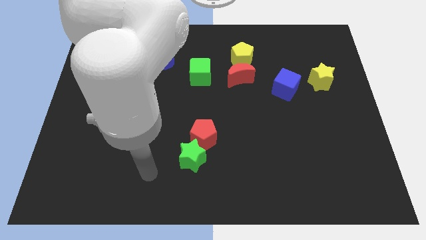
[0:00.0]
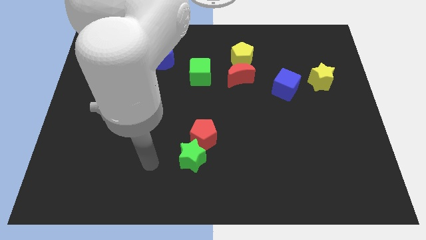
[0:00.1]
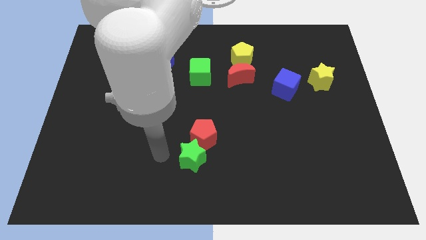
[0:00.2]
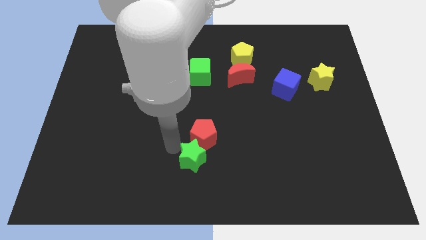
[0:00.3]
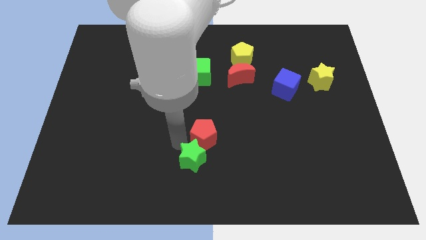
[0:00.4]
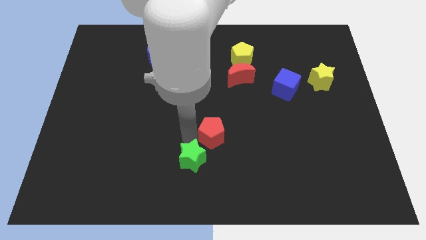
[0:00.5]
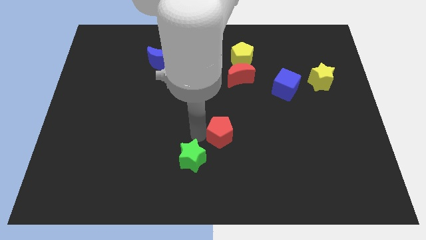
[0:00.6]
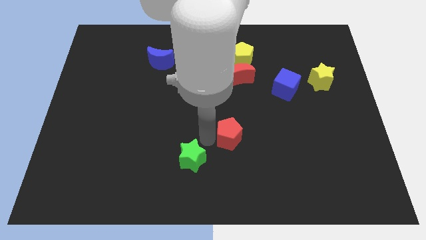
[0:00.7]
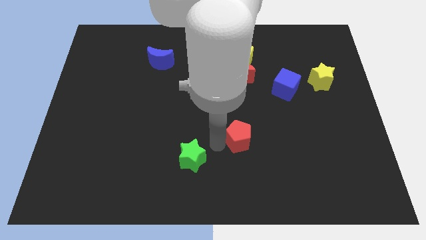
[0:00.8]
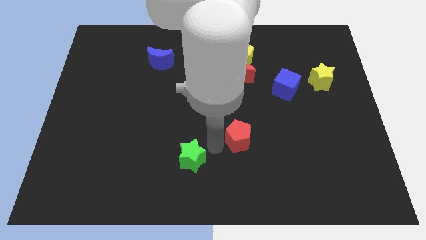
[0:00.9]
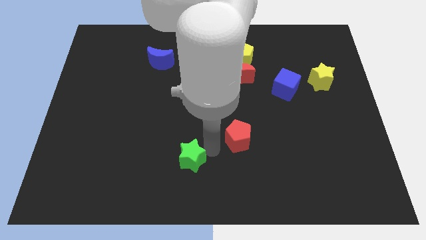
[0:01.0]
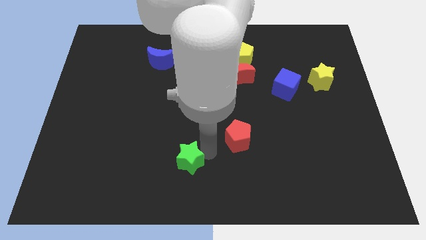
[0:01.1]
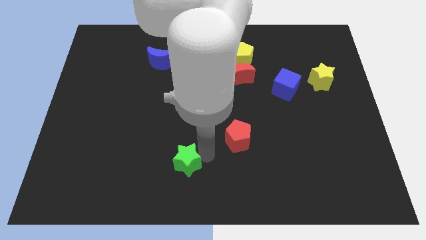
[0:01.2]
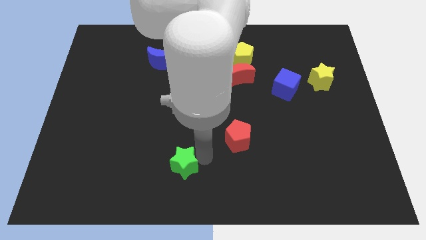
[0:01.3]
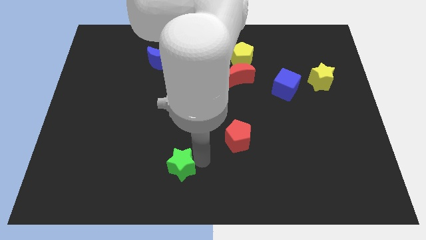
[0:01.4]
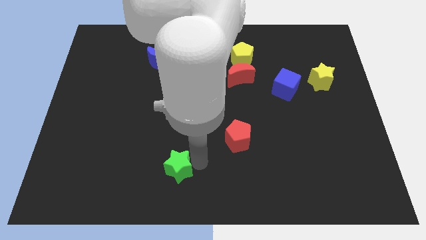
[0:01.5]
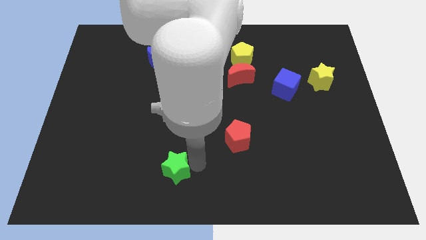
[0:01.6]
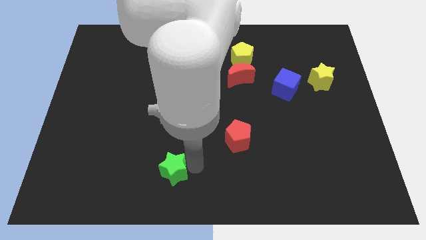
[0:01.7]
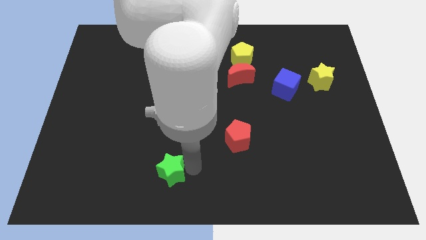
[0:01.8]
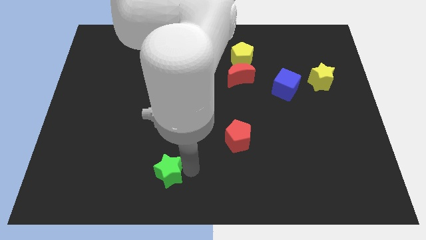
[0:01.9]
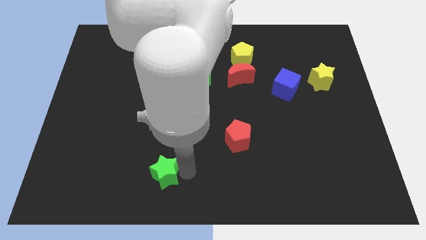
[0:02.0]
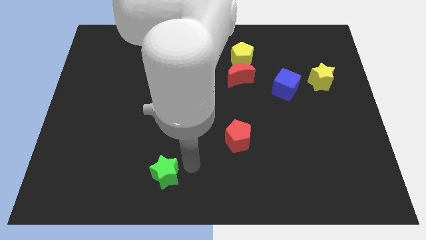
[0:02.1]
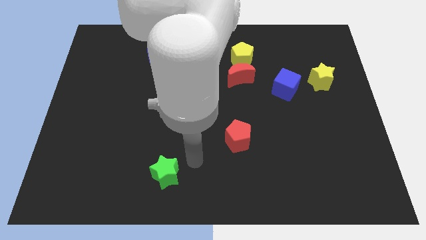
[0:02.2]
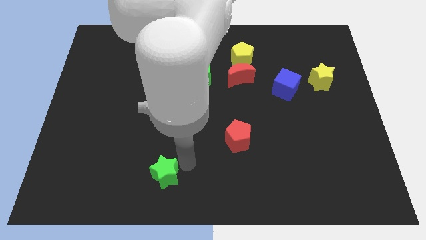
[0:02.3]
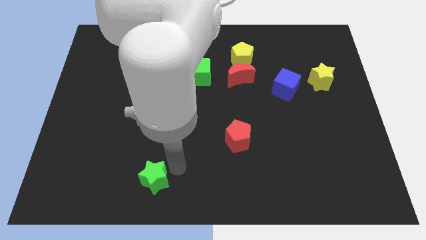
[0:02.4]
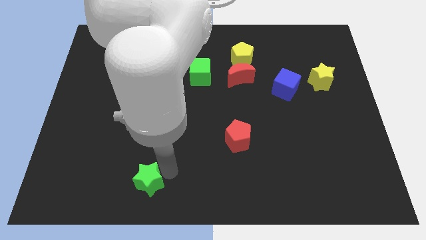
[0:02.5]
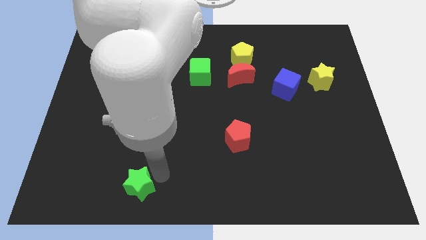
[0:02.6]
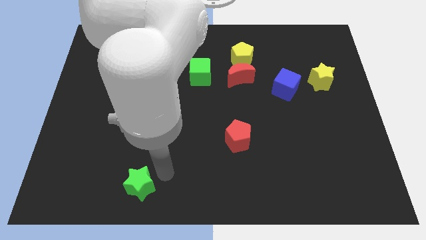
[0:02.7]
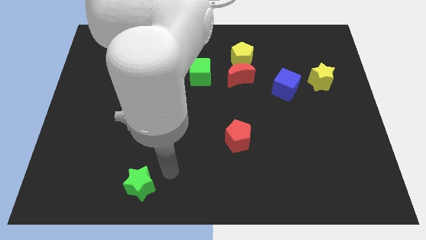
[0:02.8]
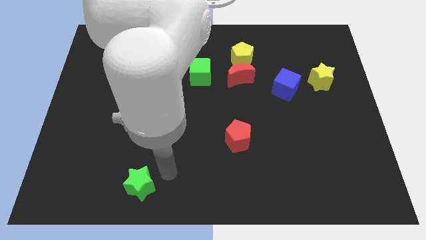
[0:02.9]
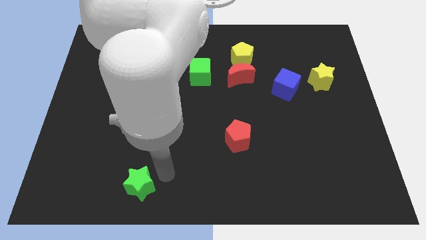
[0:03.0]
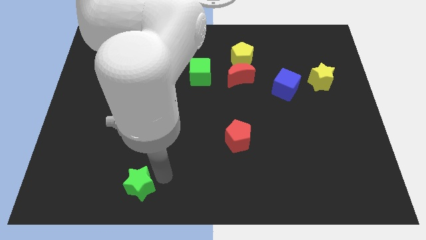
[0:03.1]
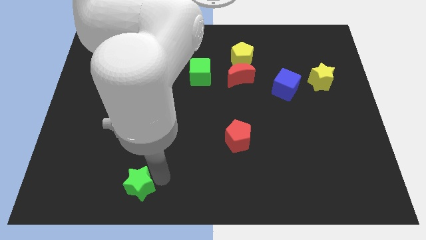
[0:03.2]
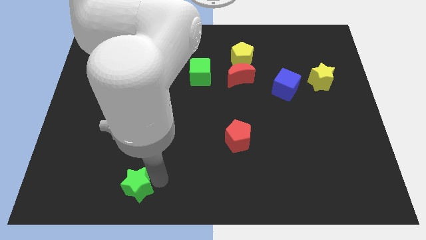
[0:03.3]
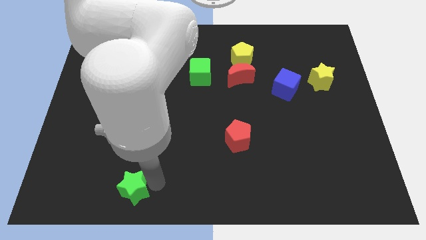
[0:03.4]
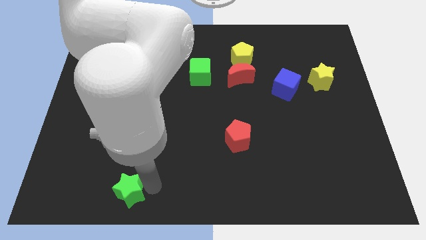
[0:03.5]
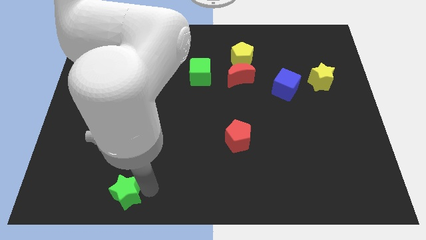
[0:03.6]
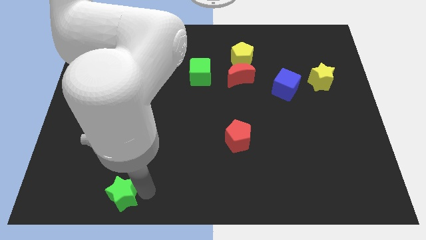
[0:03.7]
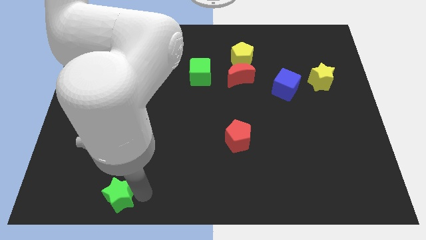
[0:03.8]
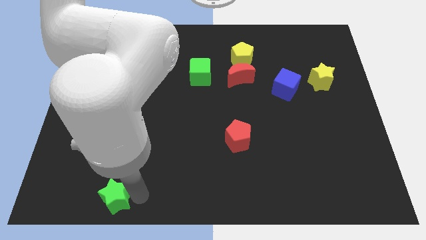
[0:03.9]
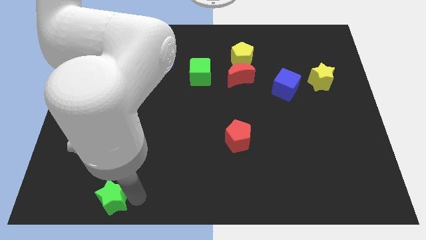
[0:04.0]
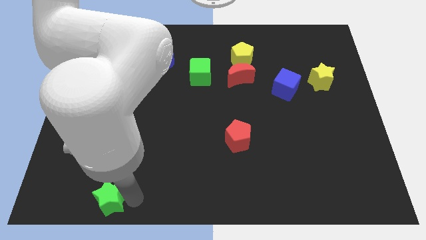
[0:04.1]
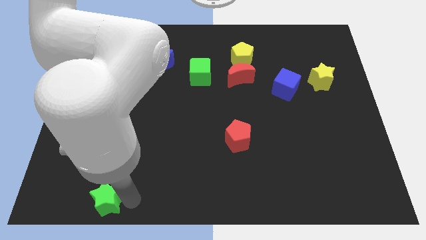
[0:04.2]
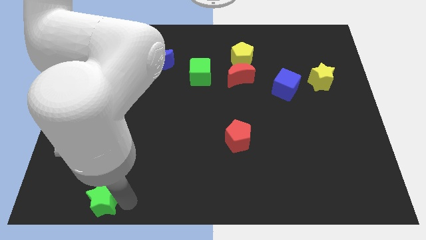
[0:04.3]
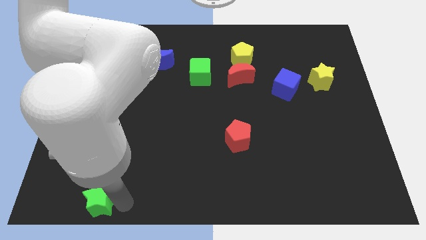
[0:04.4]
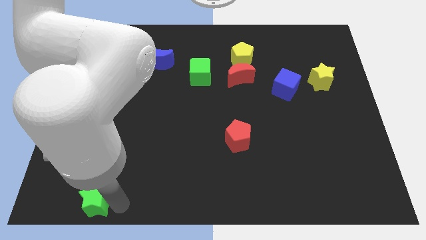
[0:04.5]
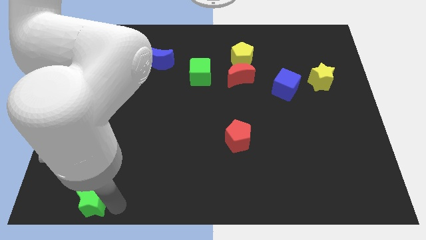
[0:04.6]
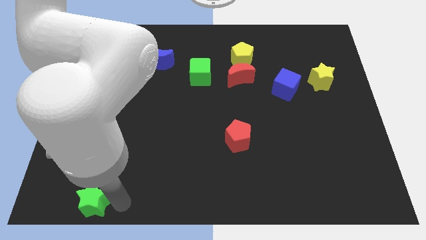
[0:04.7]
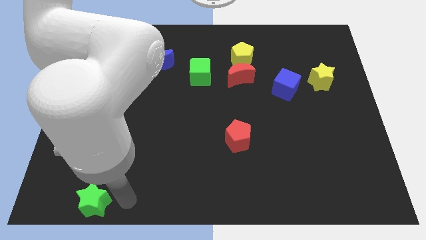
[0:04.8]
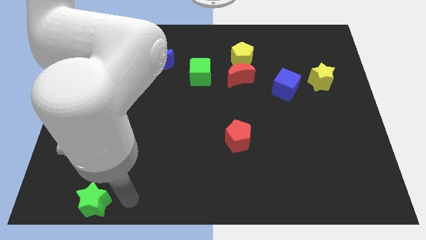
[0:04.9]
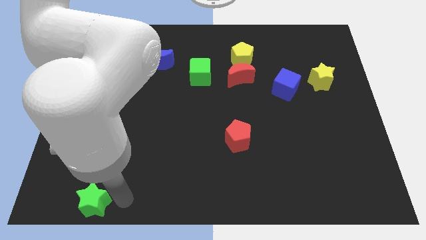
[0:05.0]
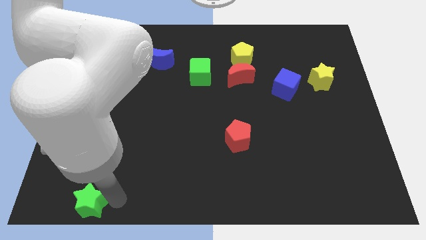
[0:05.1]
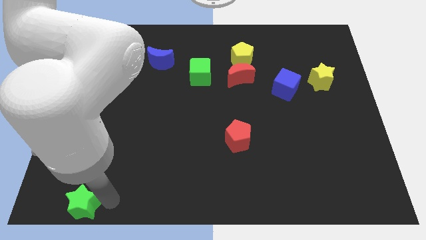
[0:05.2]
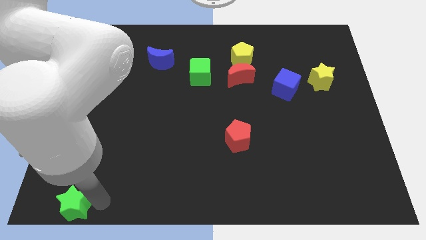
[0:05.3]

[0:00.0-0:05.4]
slide the green star to the lower left corner

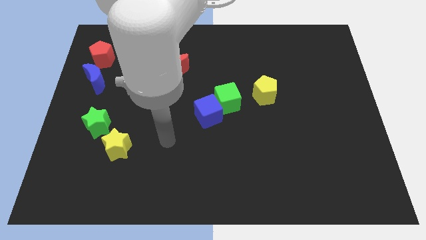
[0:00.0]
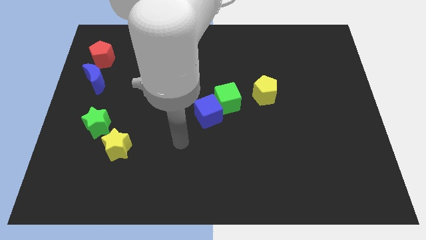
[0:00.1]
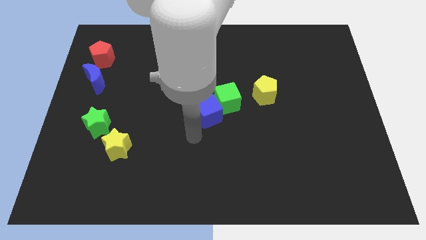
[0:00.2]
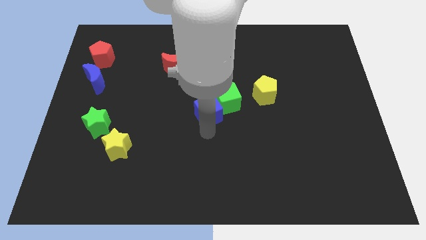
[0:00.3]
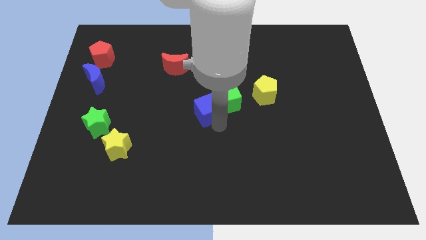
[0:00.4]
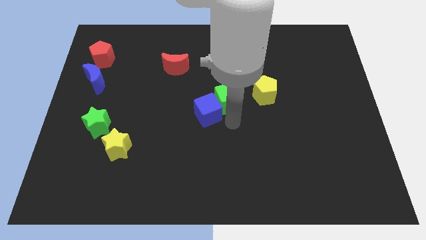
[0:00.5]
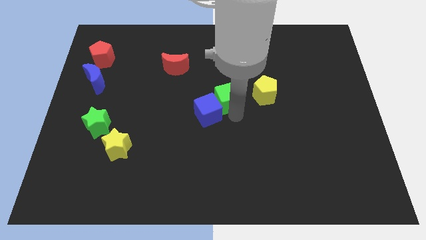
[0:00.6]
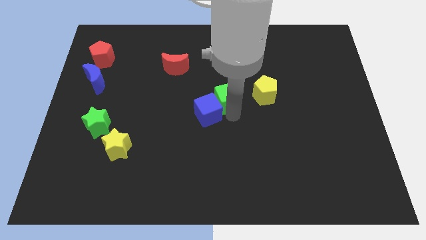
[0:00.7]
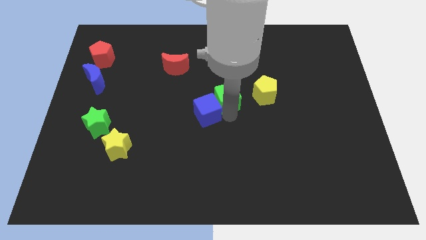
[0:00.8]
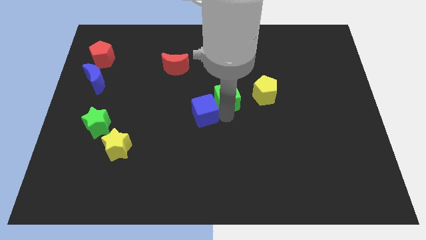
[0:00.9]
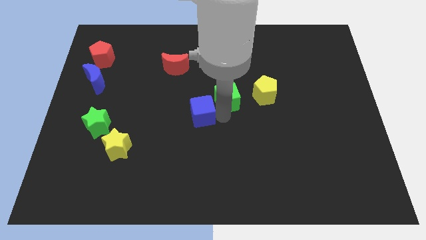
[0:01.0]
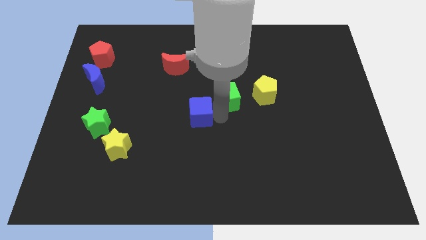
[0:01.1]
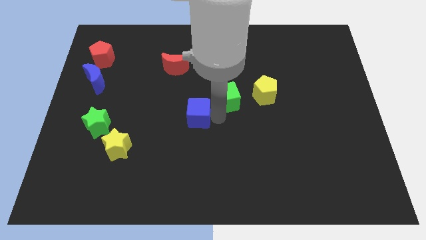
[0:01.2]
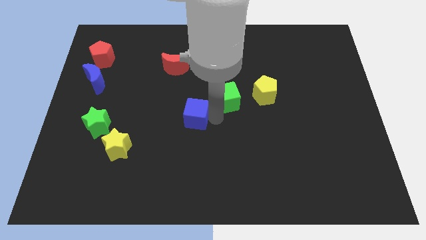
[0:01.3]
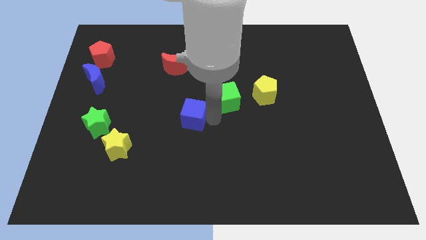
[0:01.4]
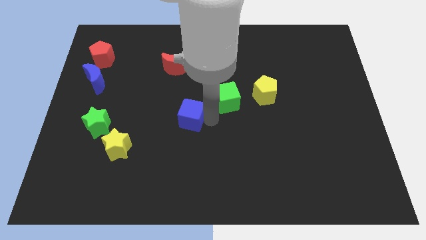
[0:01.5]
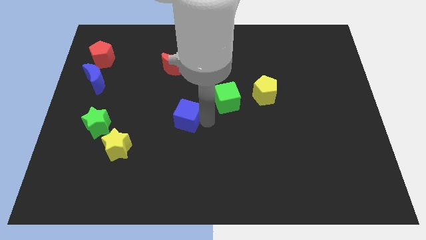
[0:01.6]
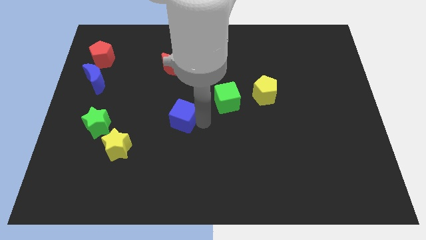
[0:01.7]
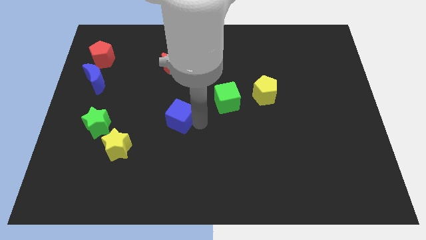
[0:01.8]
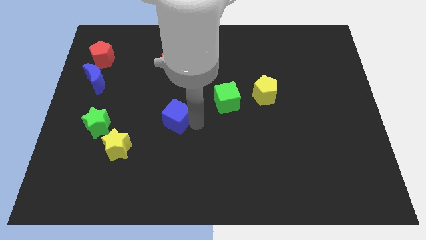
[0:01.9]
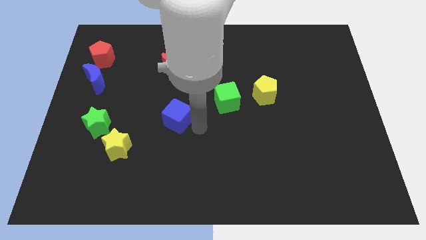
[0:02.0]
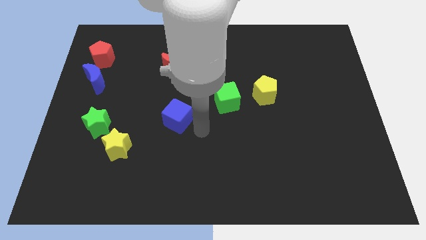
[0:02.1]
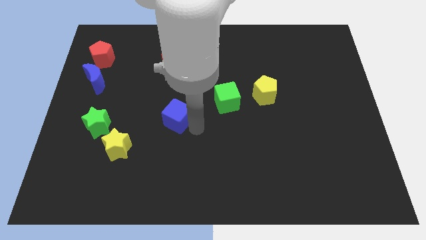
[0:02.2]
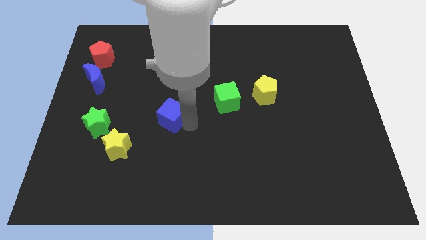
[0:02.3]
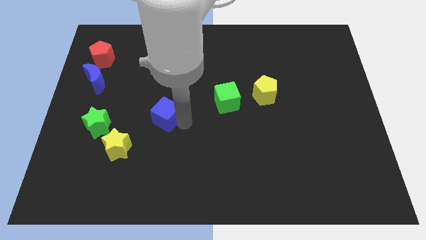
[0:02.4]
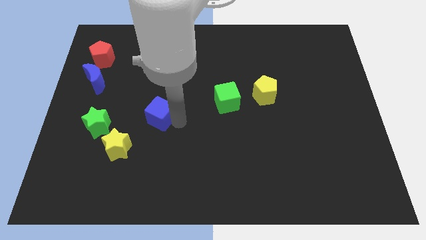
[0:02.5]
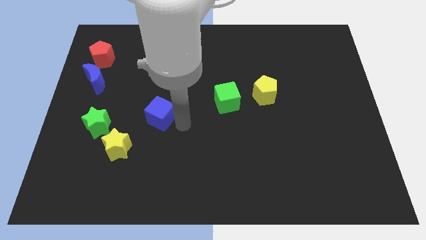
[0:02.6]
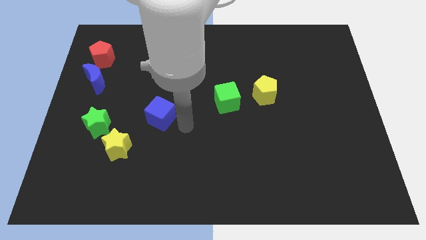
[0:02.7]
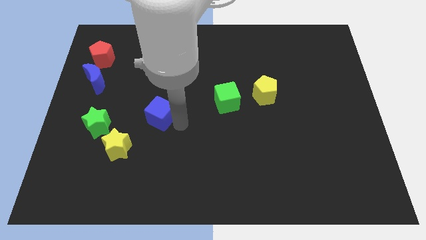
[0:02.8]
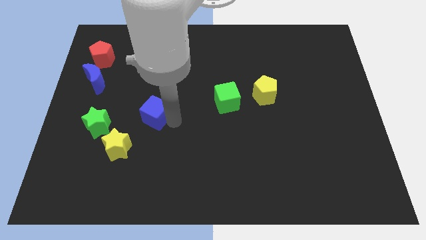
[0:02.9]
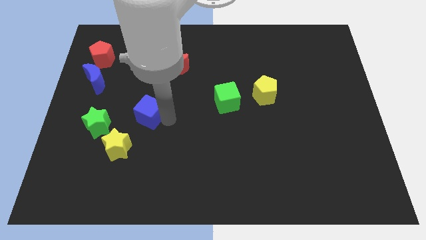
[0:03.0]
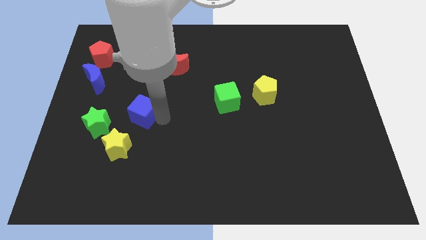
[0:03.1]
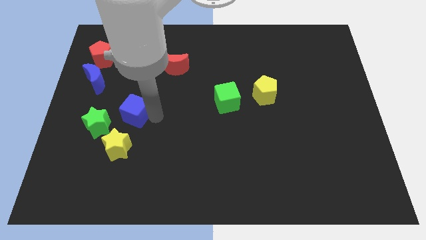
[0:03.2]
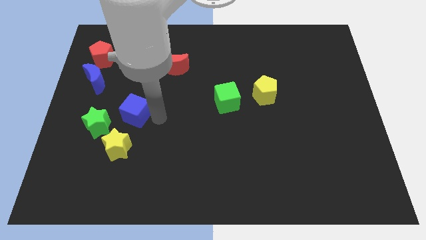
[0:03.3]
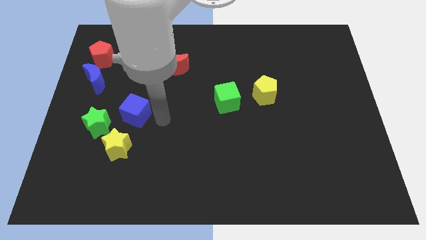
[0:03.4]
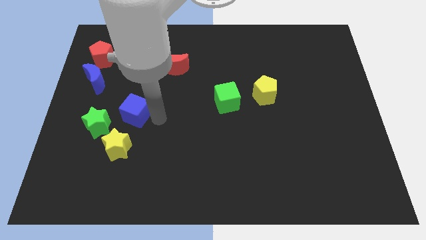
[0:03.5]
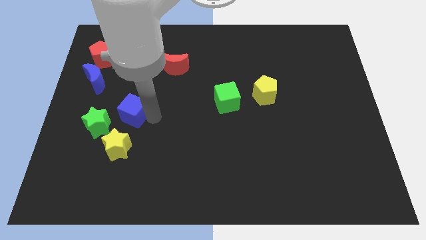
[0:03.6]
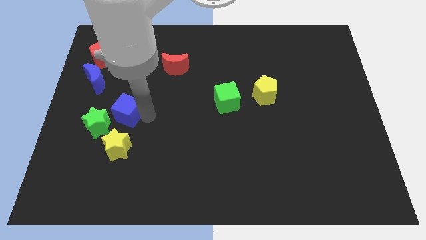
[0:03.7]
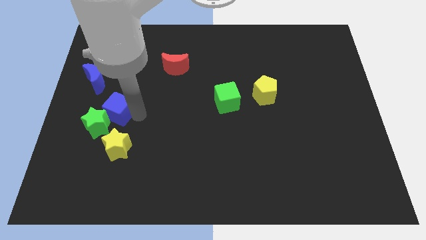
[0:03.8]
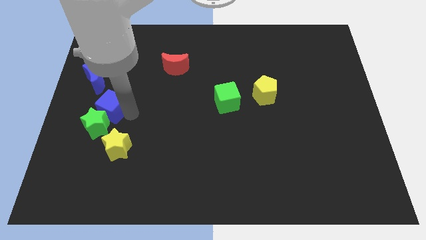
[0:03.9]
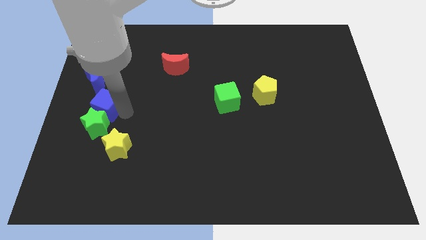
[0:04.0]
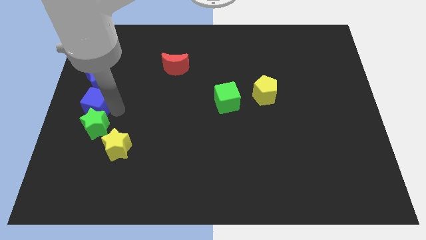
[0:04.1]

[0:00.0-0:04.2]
slide the blue cube to the left side of the board
